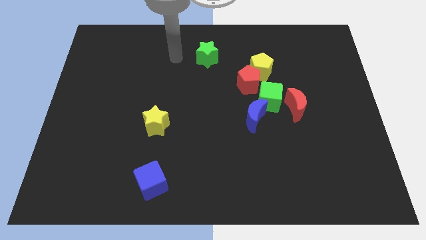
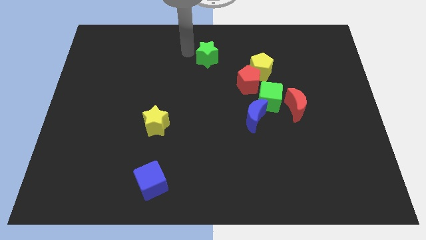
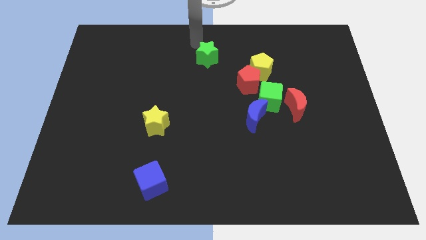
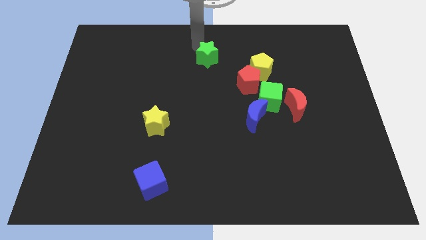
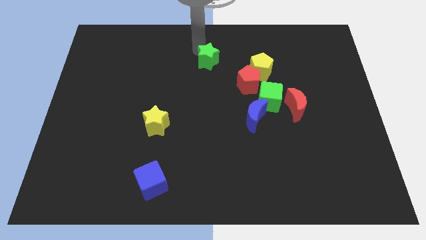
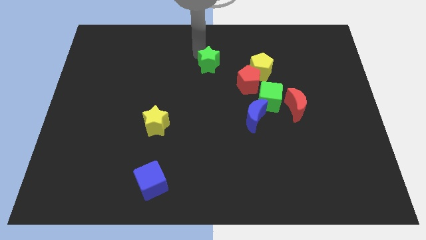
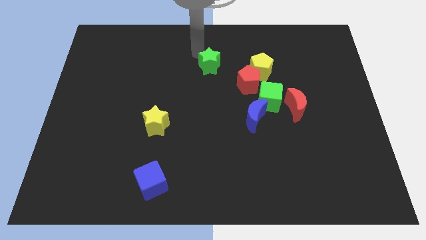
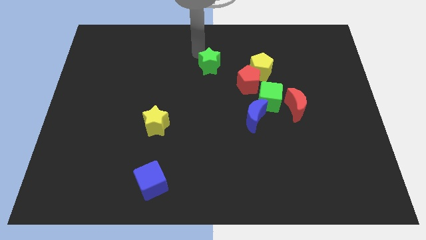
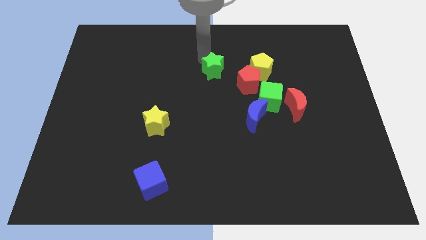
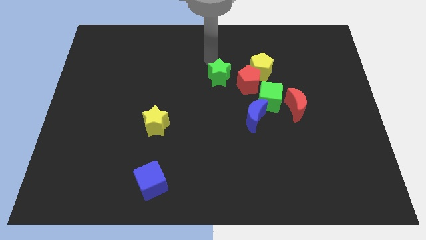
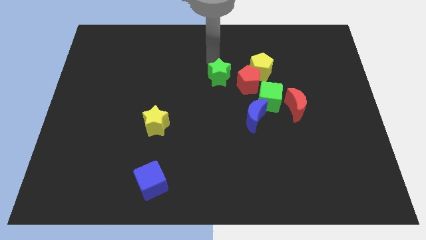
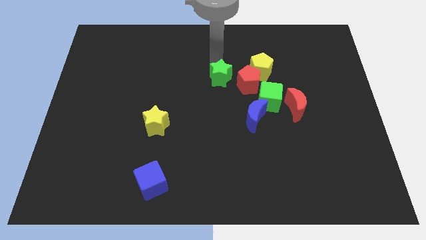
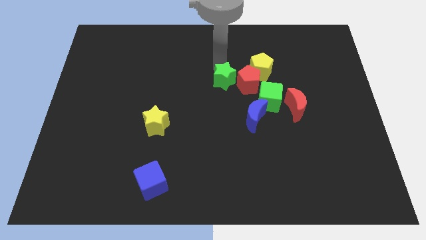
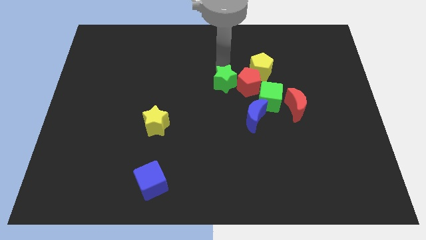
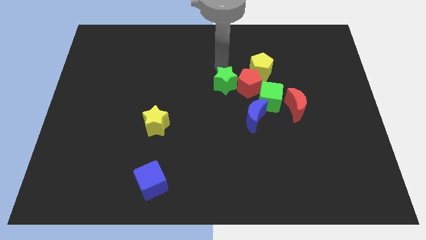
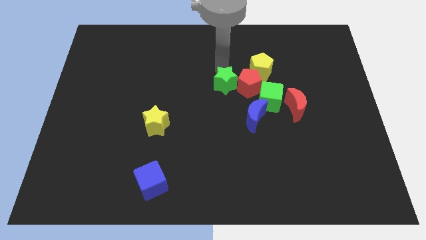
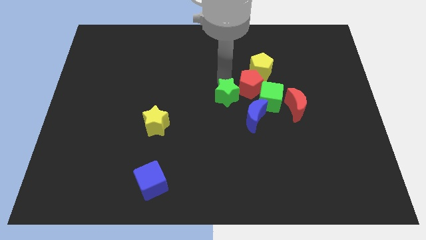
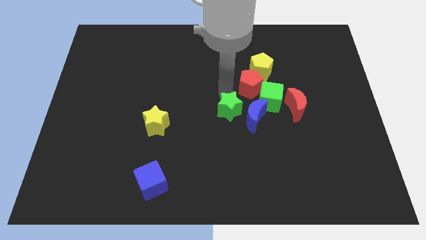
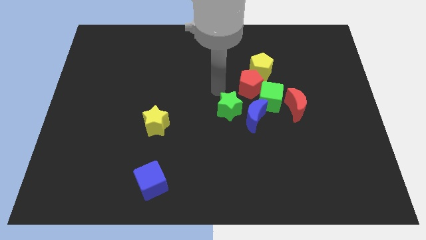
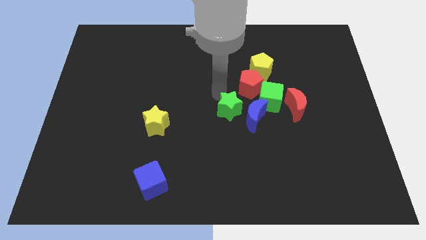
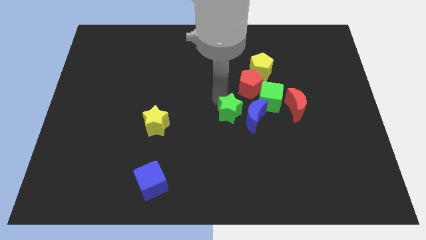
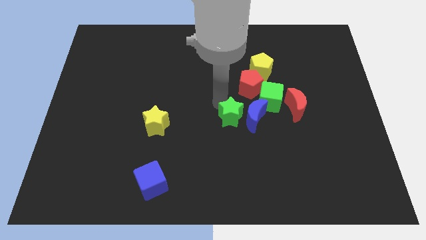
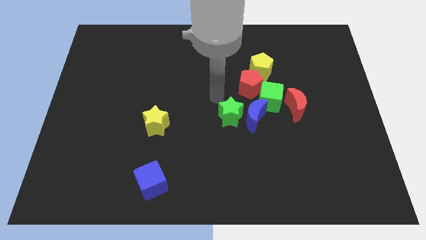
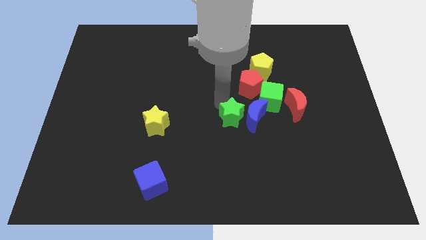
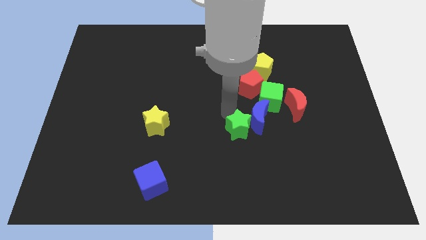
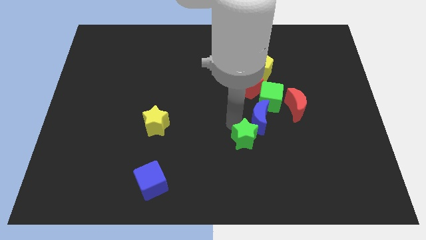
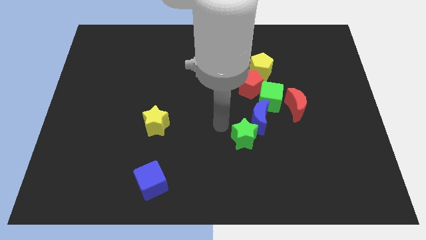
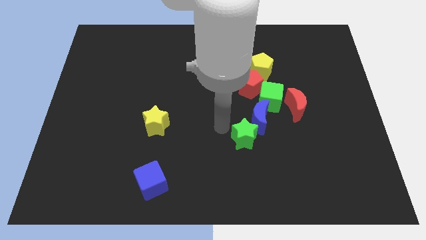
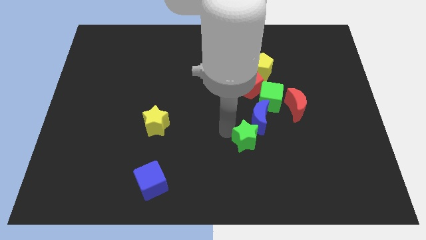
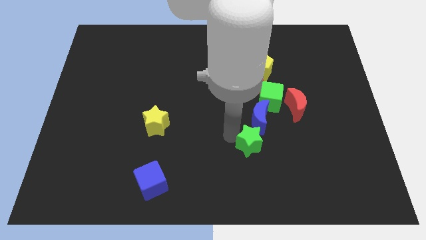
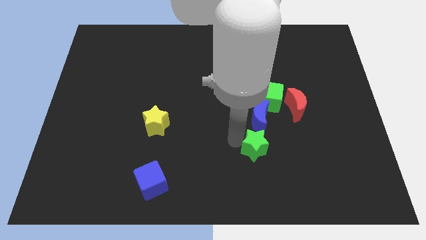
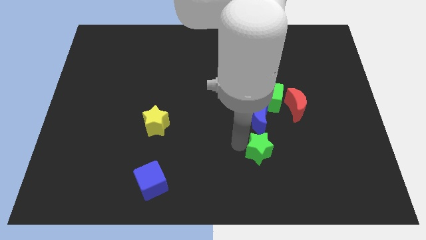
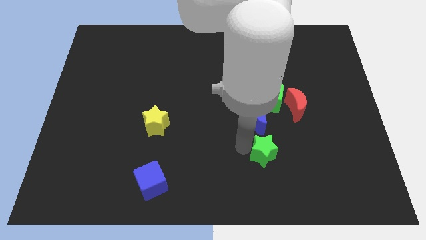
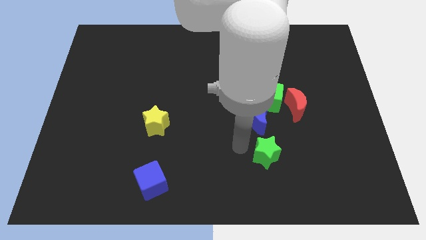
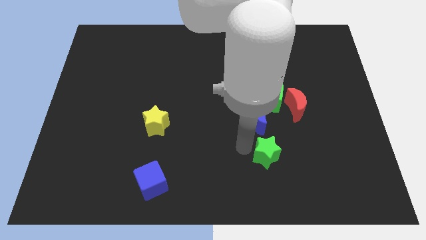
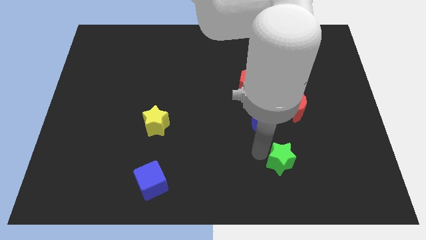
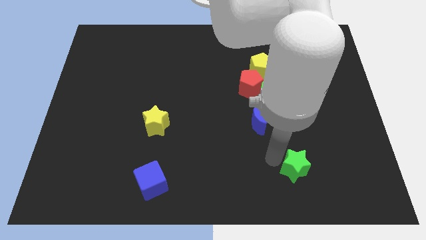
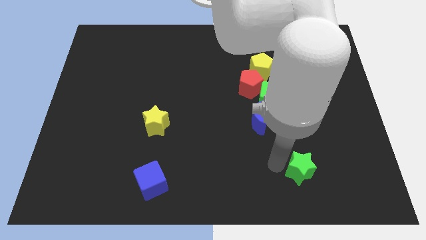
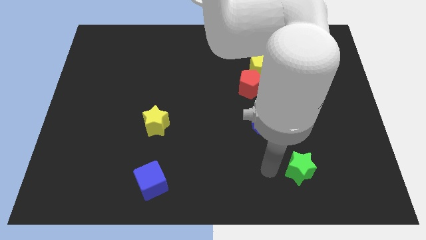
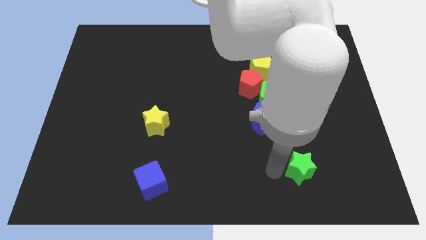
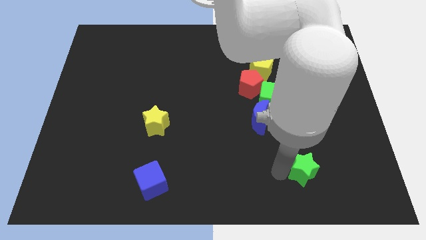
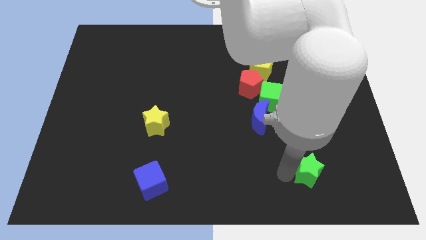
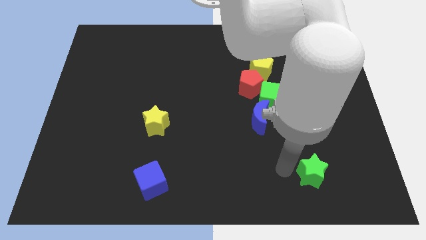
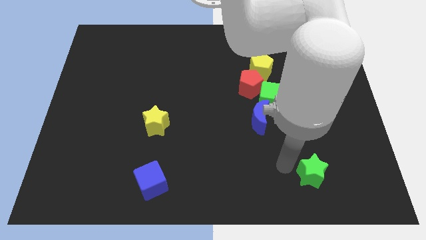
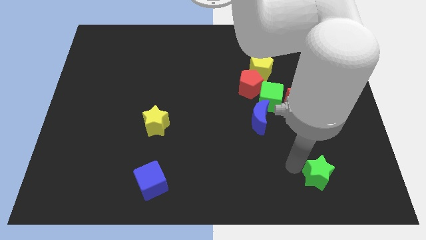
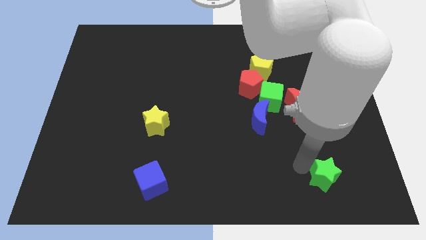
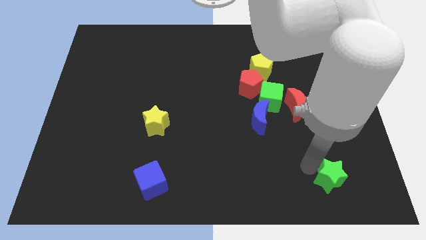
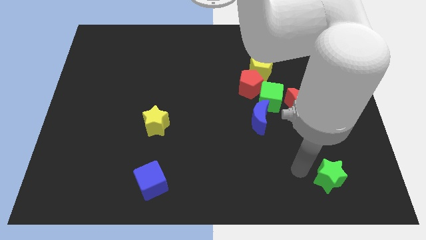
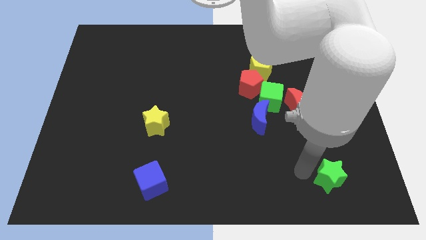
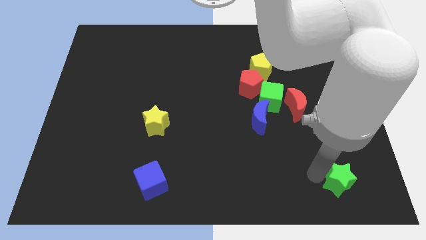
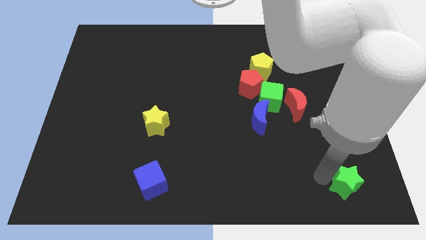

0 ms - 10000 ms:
push the green star to the bottom right corner
